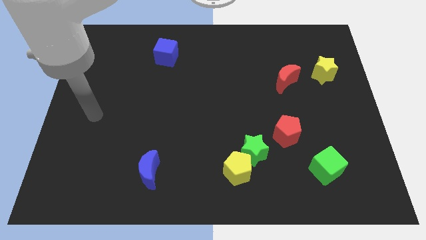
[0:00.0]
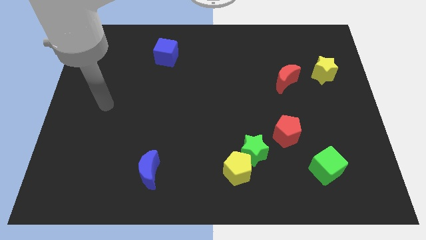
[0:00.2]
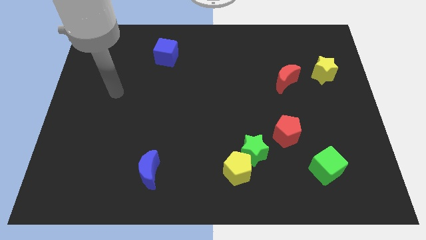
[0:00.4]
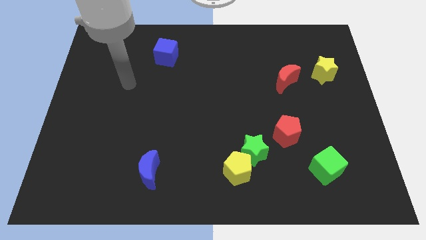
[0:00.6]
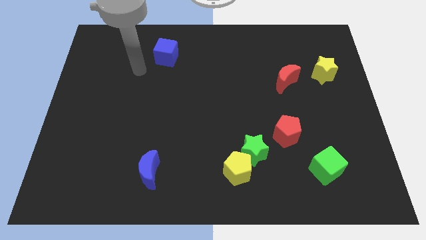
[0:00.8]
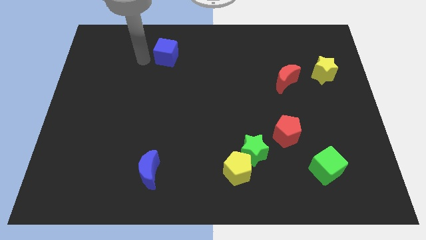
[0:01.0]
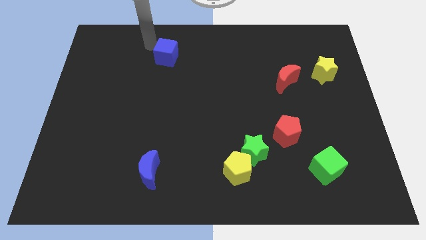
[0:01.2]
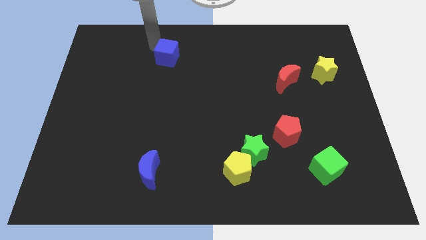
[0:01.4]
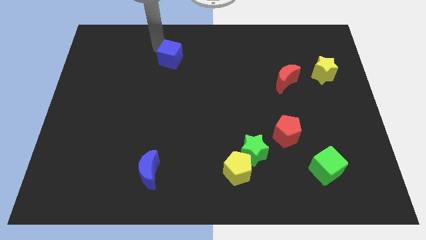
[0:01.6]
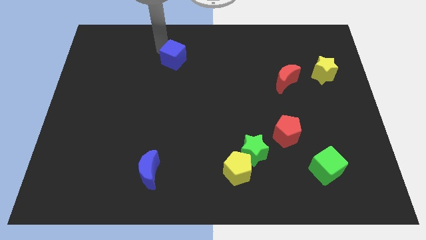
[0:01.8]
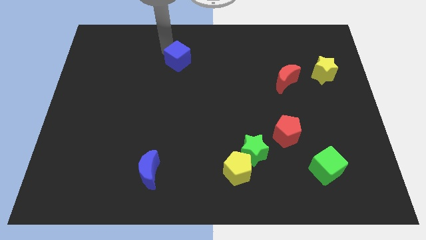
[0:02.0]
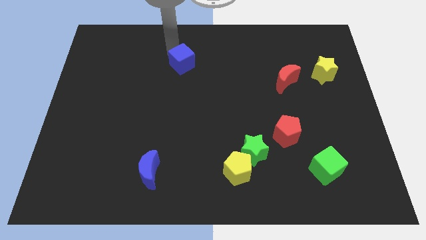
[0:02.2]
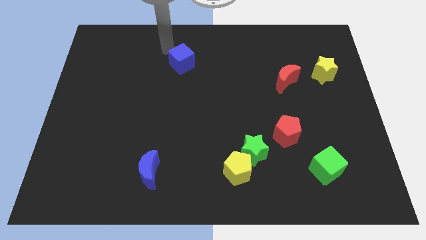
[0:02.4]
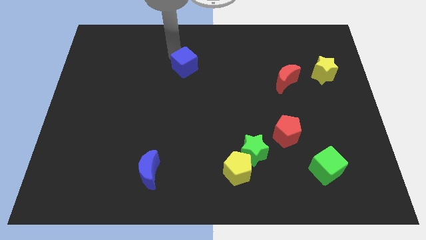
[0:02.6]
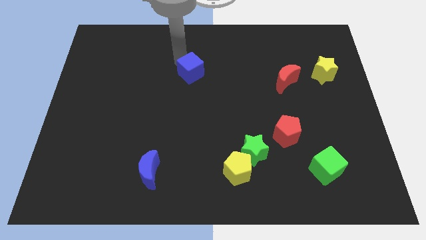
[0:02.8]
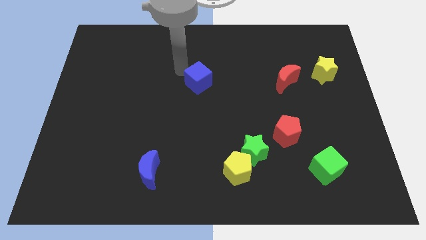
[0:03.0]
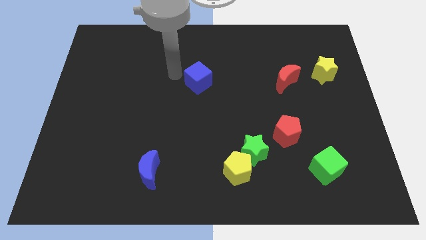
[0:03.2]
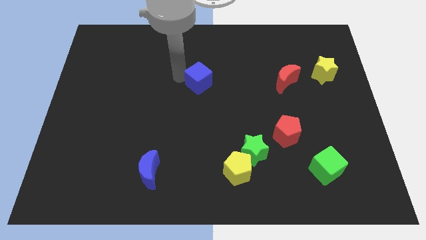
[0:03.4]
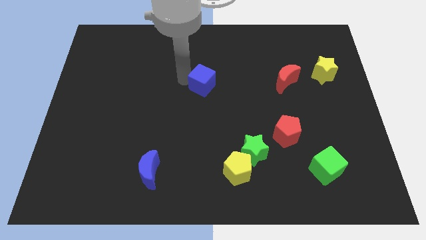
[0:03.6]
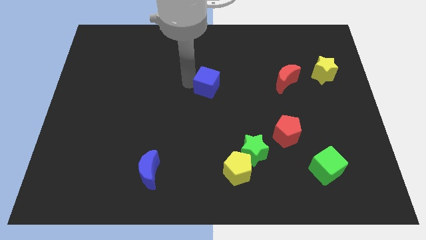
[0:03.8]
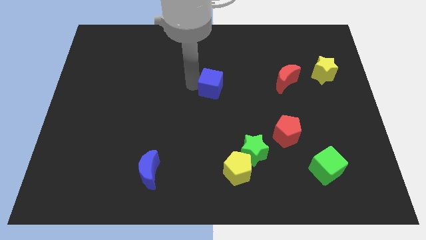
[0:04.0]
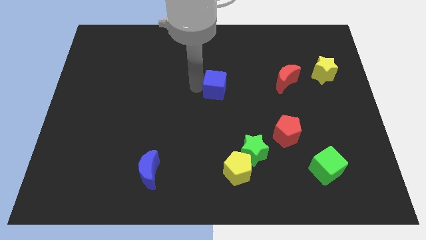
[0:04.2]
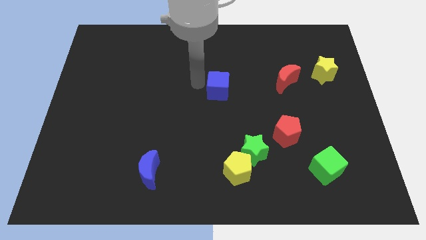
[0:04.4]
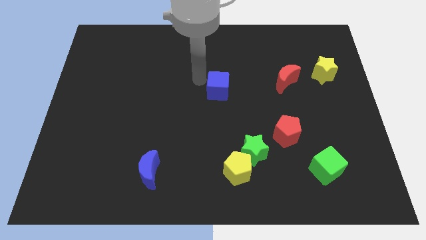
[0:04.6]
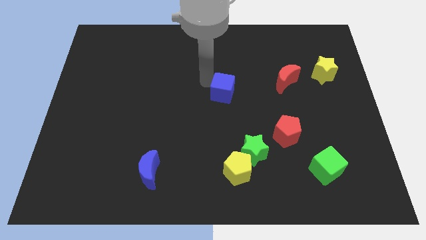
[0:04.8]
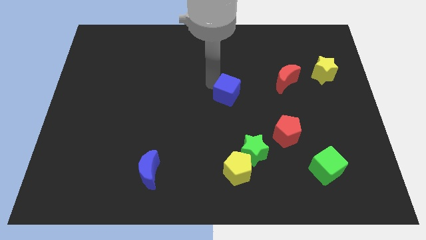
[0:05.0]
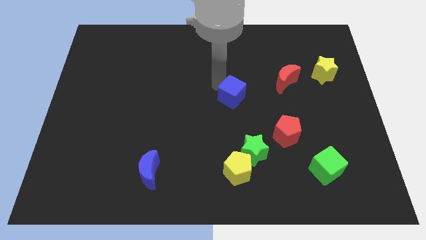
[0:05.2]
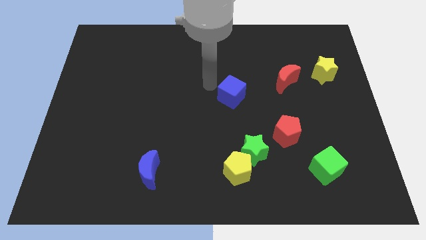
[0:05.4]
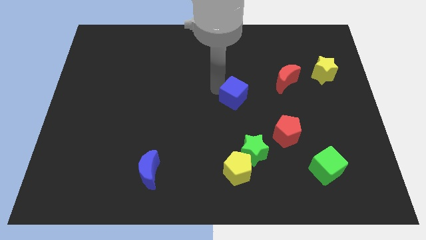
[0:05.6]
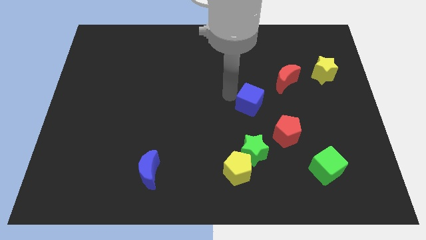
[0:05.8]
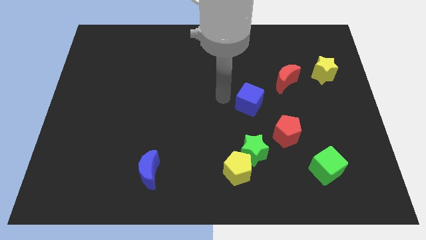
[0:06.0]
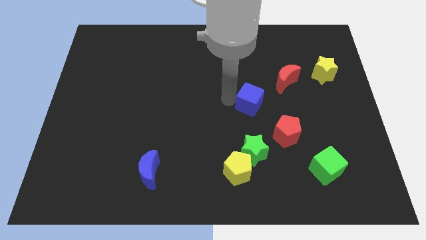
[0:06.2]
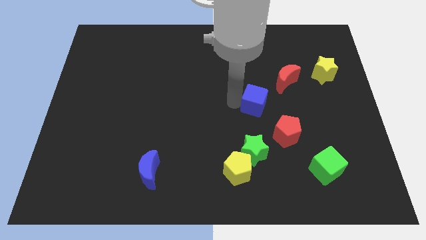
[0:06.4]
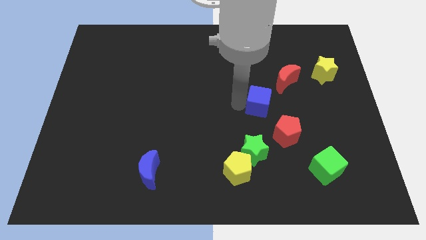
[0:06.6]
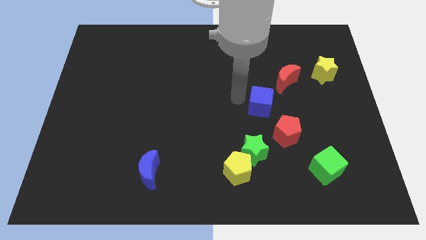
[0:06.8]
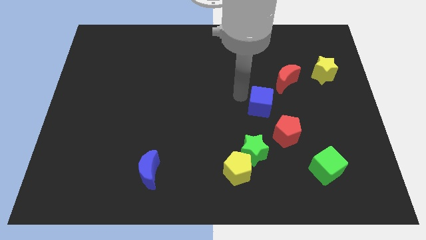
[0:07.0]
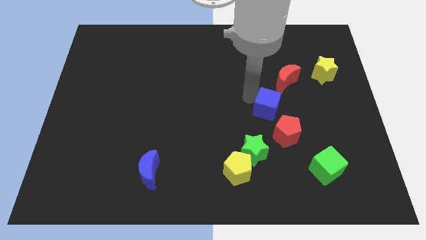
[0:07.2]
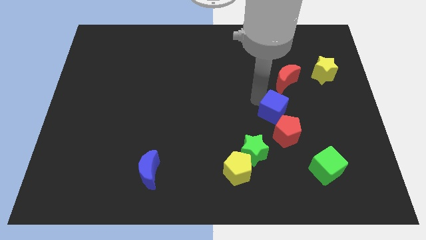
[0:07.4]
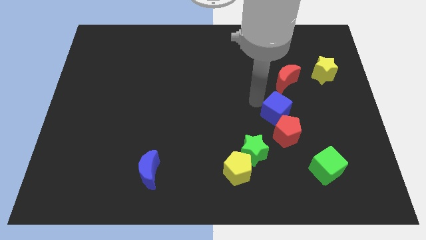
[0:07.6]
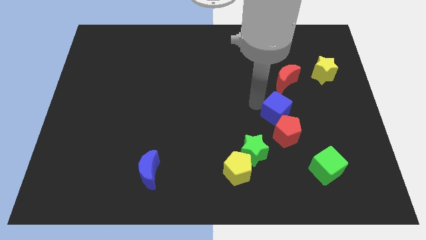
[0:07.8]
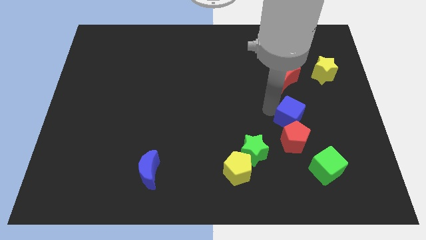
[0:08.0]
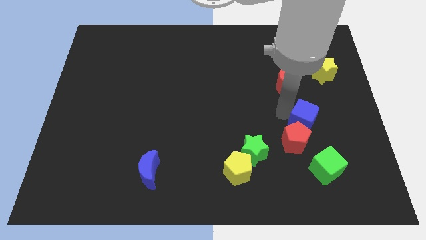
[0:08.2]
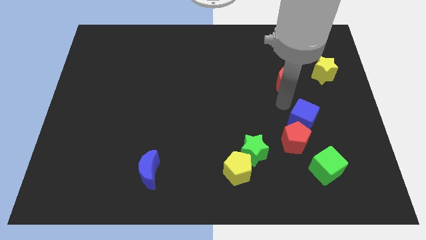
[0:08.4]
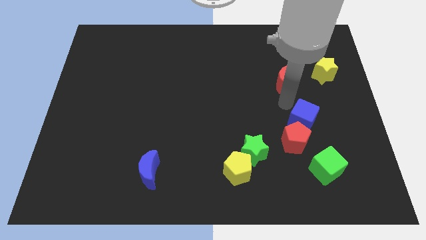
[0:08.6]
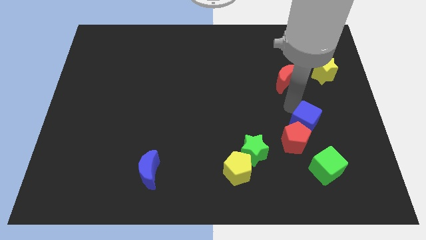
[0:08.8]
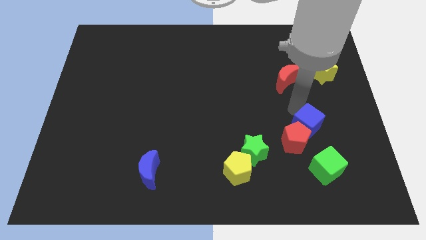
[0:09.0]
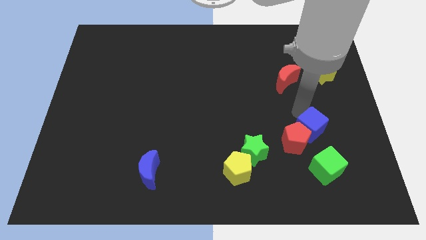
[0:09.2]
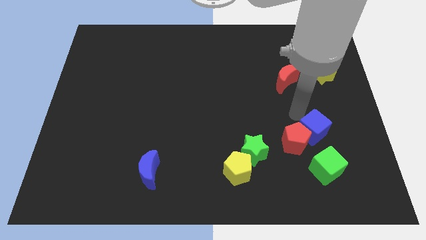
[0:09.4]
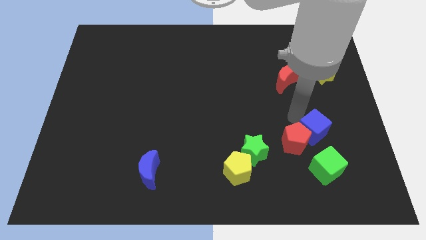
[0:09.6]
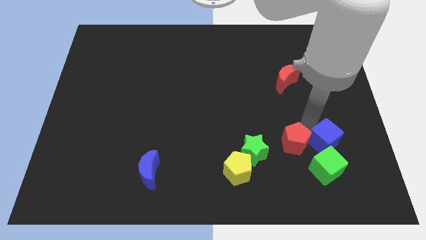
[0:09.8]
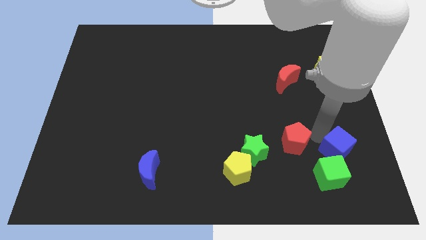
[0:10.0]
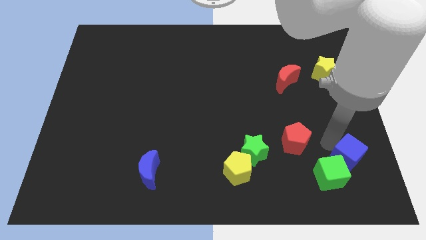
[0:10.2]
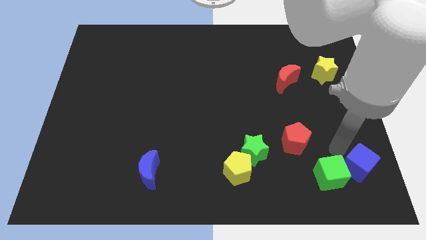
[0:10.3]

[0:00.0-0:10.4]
move the blue cube to the bottom right corner

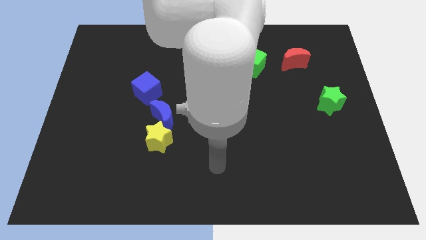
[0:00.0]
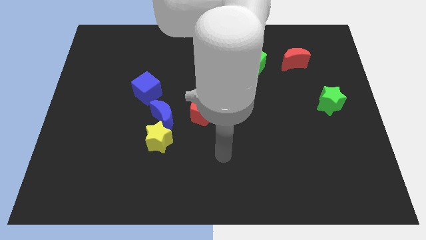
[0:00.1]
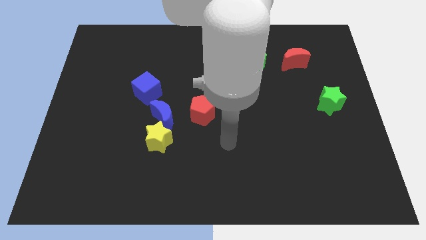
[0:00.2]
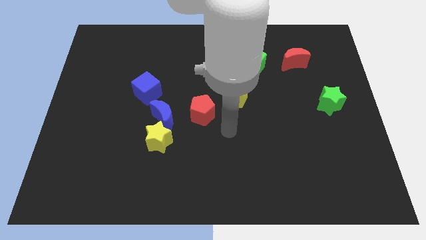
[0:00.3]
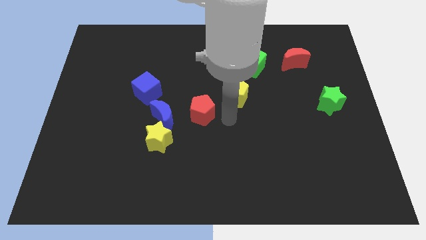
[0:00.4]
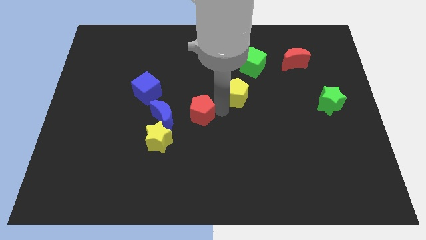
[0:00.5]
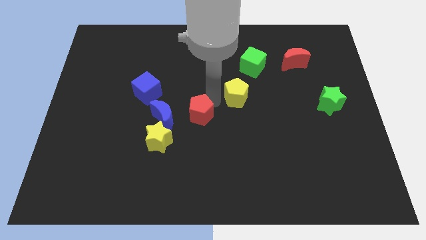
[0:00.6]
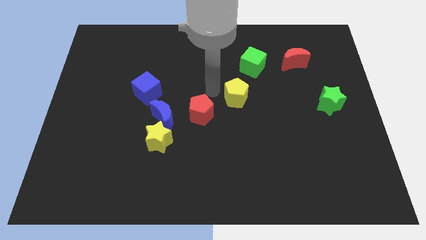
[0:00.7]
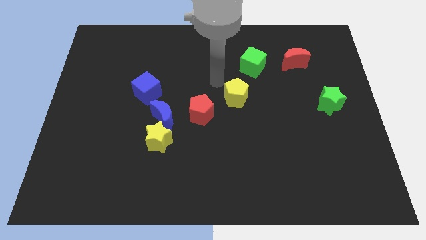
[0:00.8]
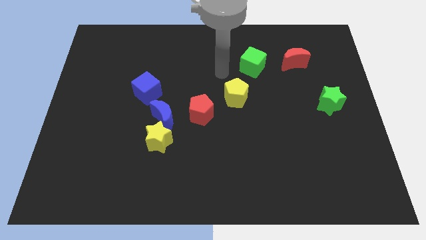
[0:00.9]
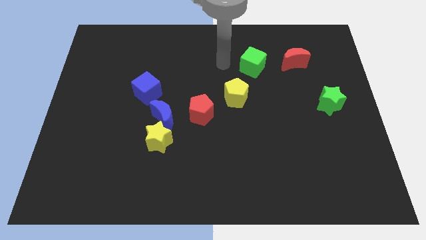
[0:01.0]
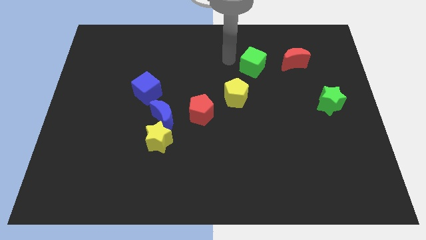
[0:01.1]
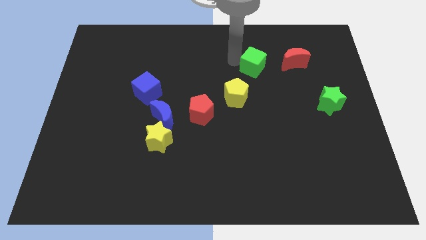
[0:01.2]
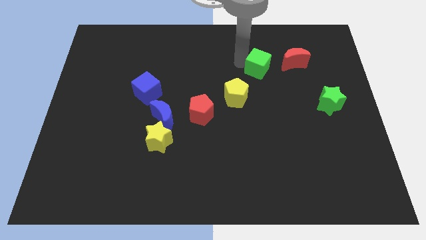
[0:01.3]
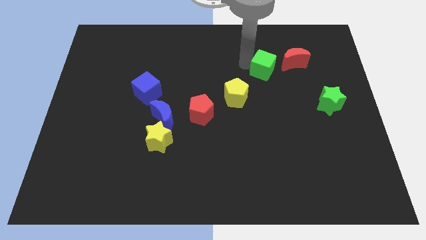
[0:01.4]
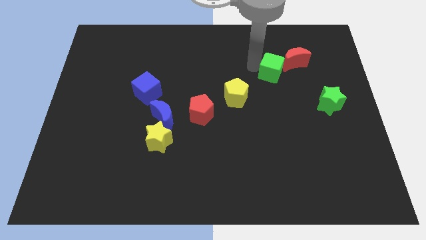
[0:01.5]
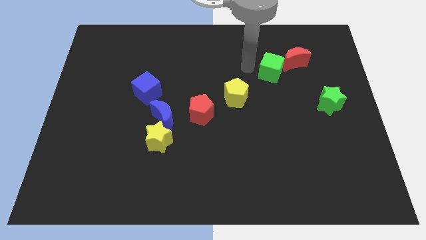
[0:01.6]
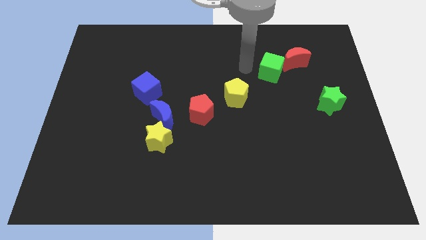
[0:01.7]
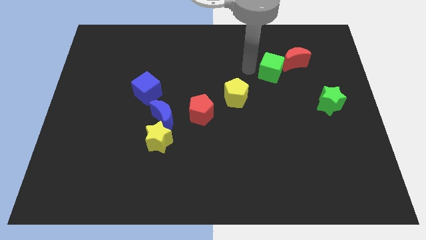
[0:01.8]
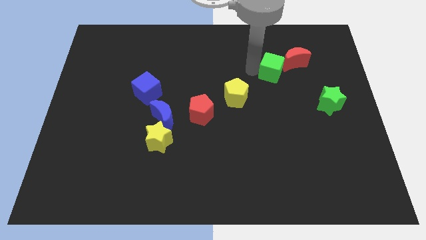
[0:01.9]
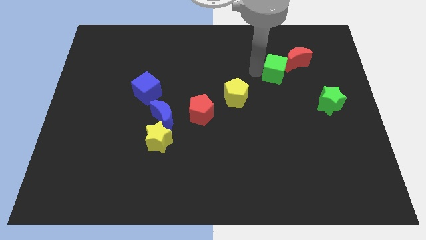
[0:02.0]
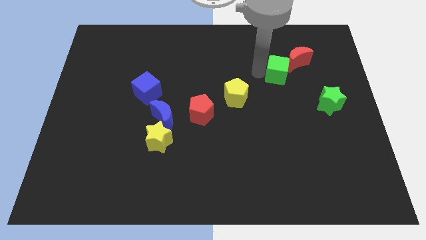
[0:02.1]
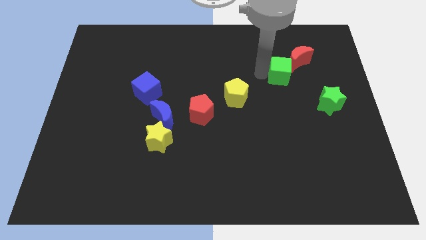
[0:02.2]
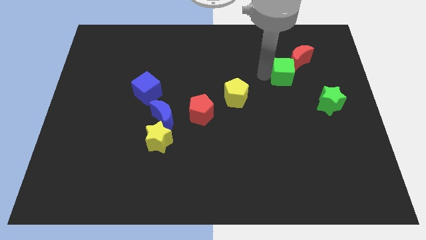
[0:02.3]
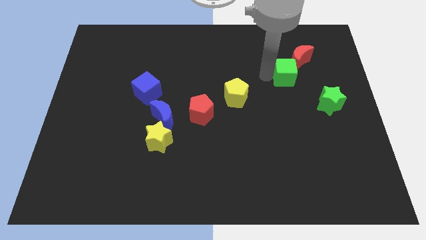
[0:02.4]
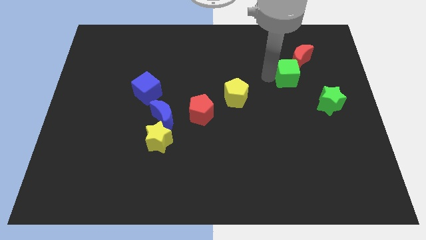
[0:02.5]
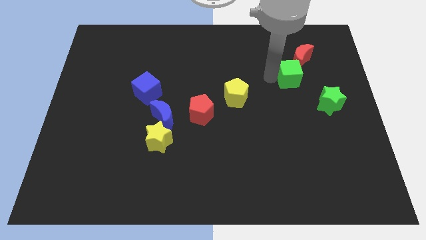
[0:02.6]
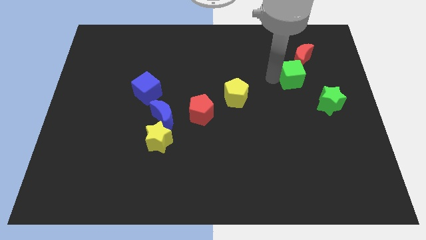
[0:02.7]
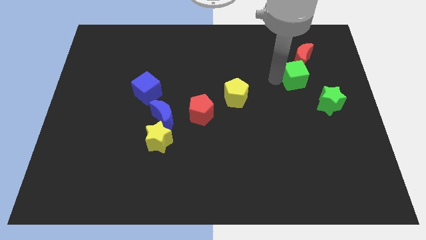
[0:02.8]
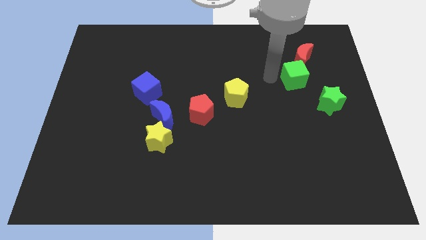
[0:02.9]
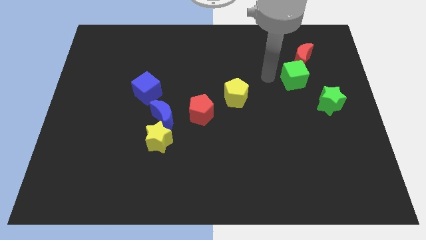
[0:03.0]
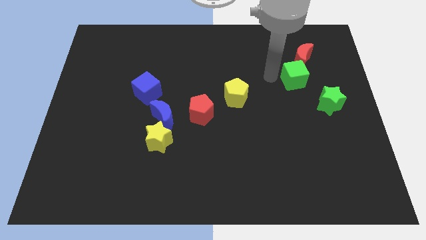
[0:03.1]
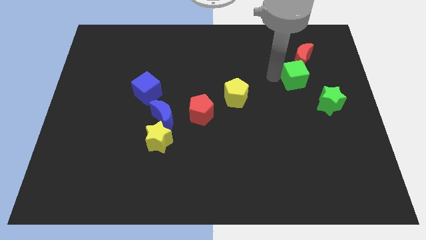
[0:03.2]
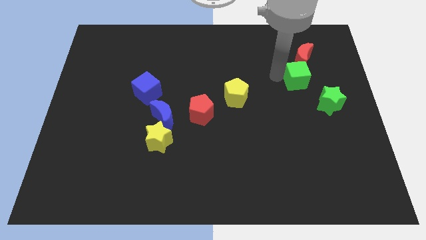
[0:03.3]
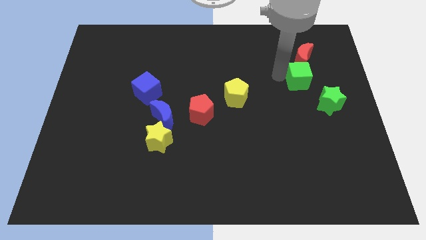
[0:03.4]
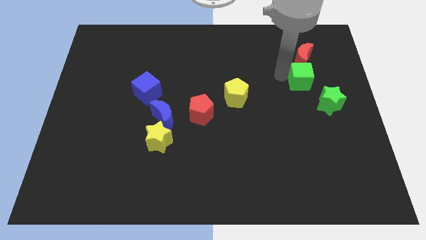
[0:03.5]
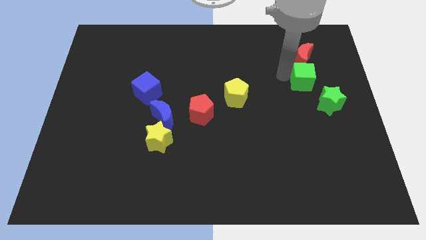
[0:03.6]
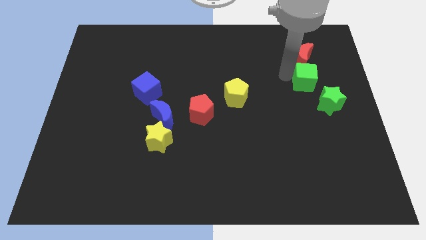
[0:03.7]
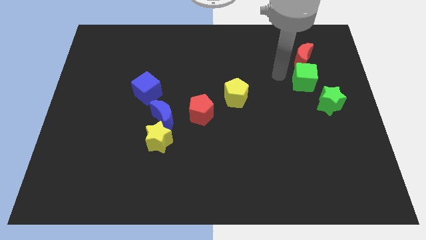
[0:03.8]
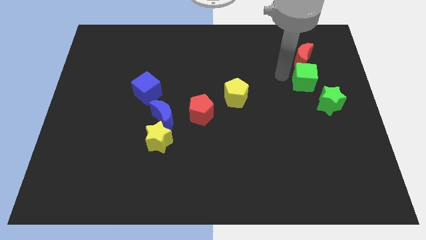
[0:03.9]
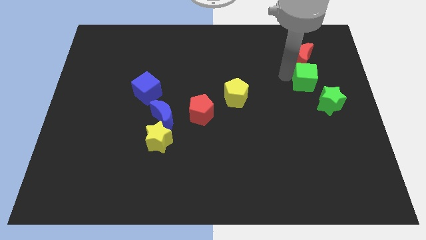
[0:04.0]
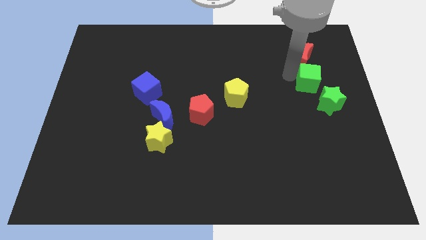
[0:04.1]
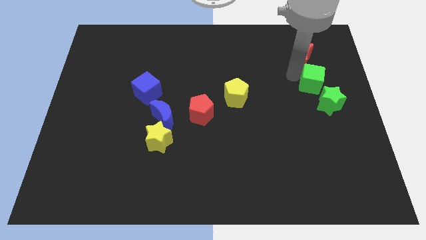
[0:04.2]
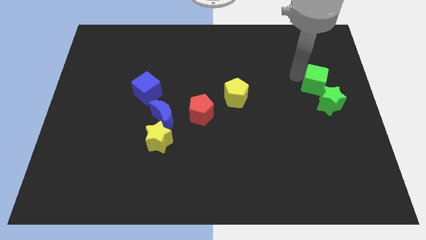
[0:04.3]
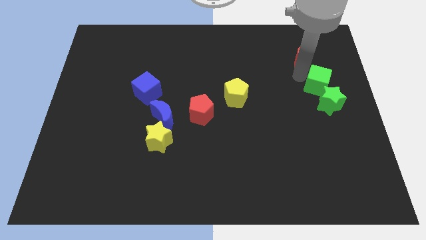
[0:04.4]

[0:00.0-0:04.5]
put the green cube to the center right
